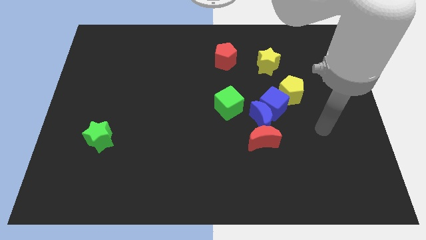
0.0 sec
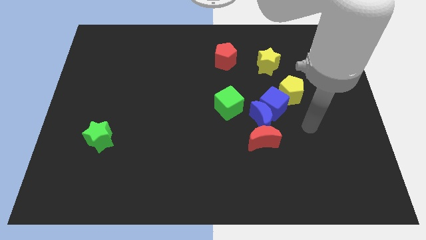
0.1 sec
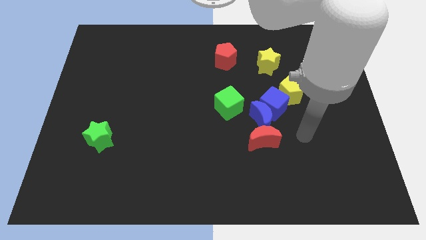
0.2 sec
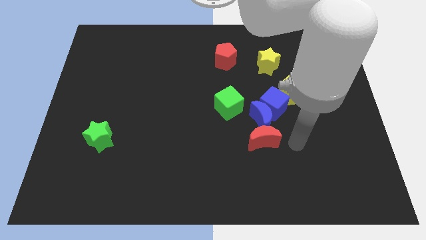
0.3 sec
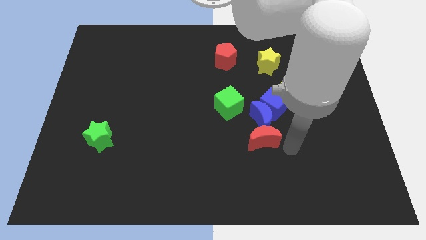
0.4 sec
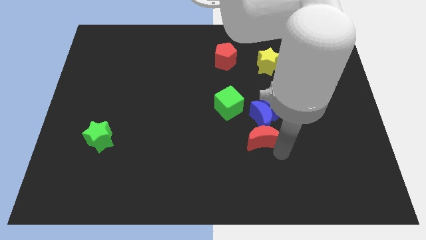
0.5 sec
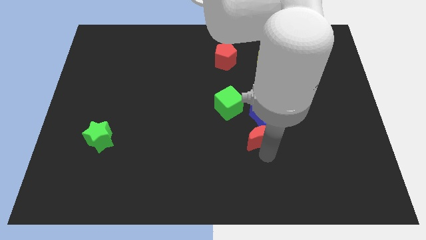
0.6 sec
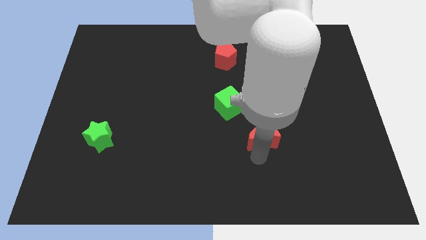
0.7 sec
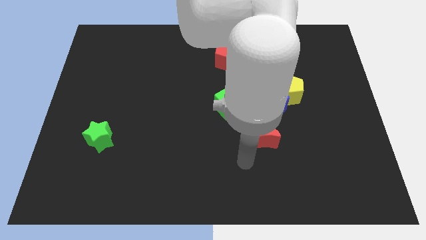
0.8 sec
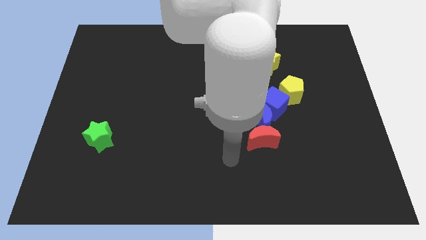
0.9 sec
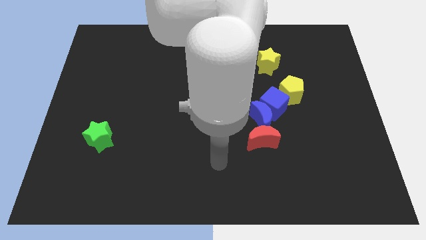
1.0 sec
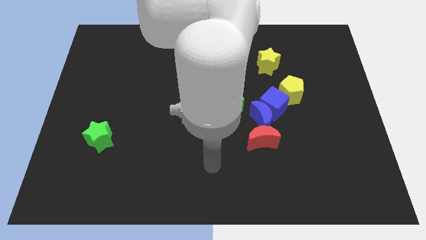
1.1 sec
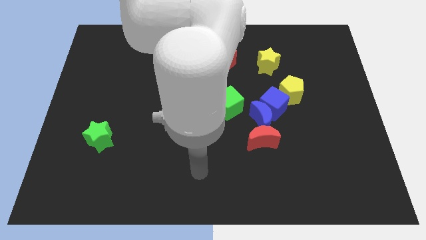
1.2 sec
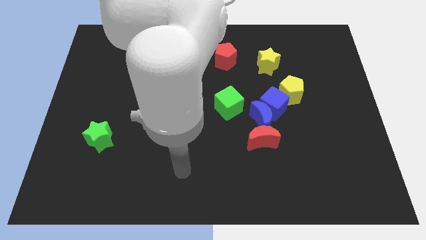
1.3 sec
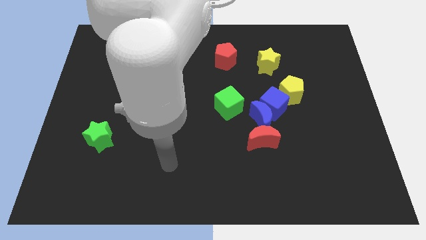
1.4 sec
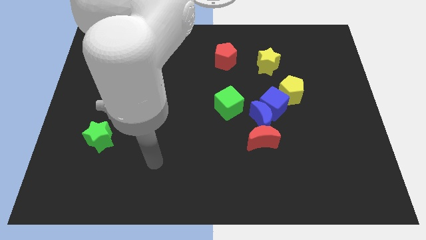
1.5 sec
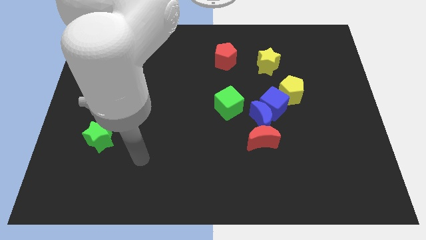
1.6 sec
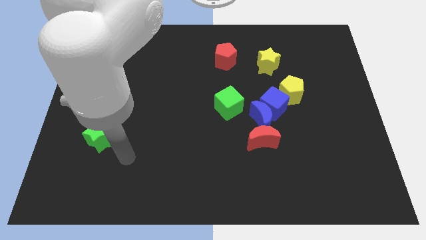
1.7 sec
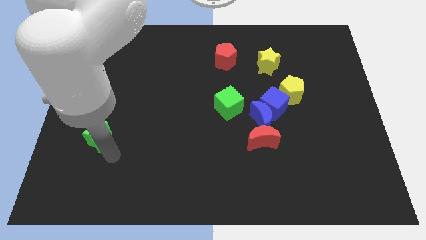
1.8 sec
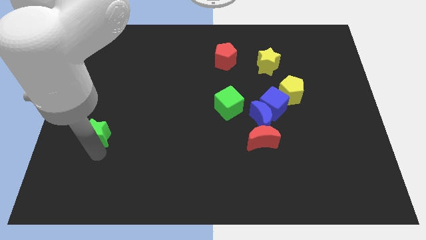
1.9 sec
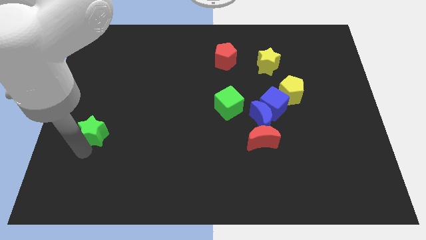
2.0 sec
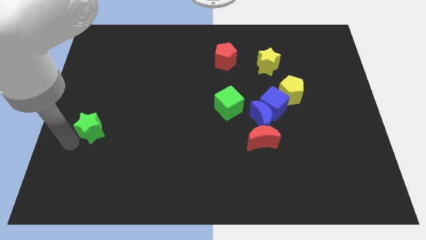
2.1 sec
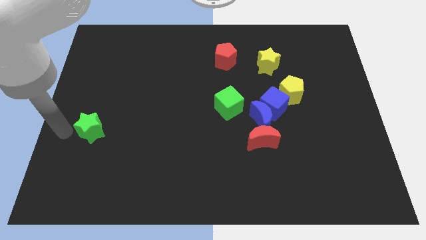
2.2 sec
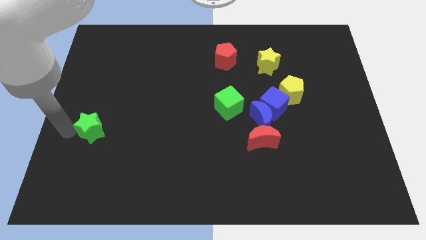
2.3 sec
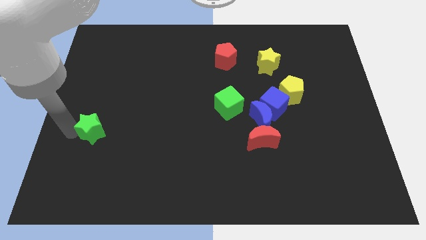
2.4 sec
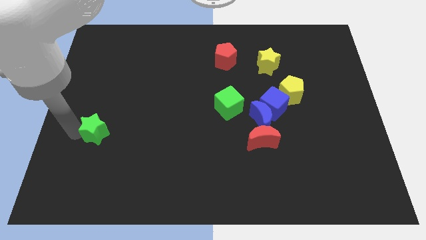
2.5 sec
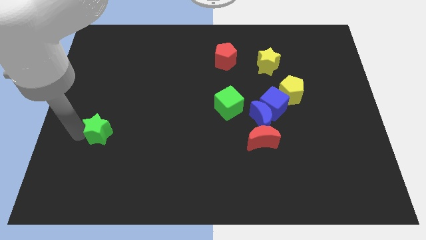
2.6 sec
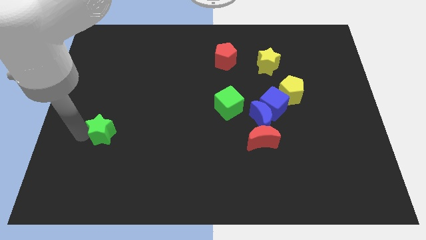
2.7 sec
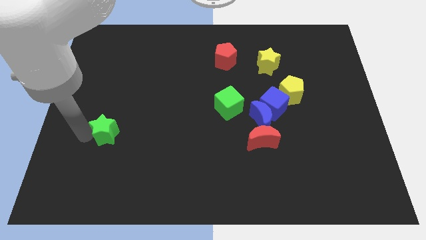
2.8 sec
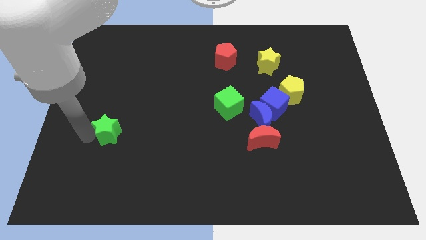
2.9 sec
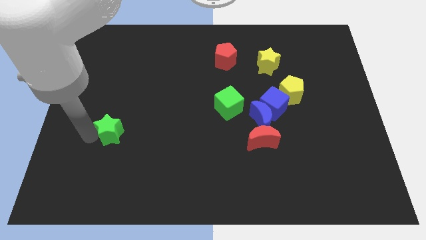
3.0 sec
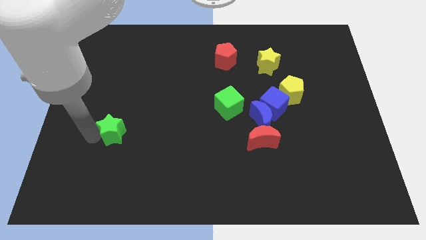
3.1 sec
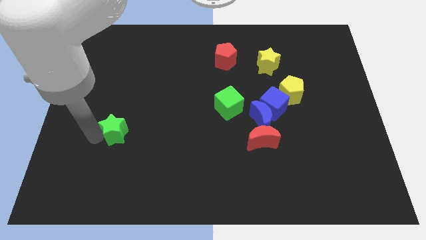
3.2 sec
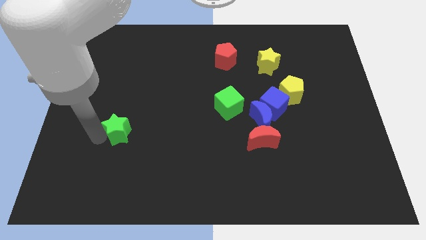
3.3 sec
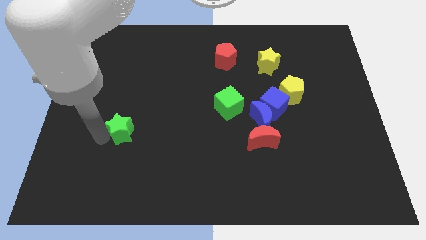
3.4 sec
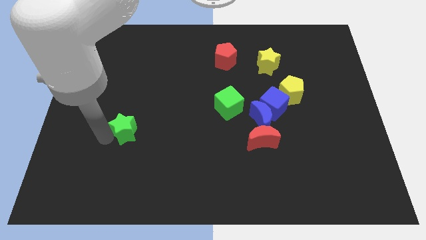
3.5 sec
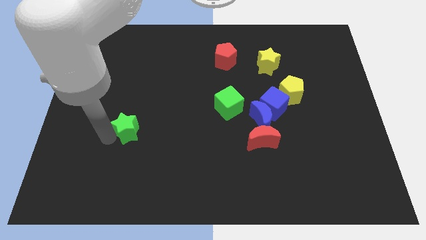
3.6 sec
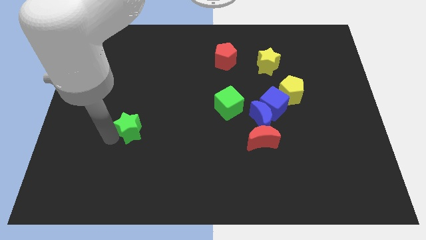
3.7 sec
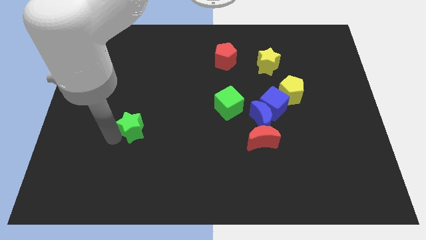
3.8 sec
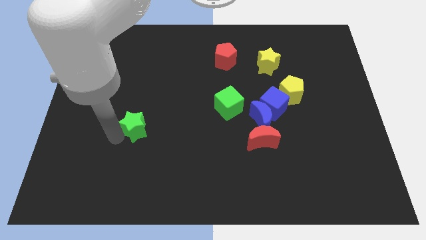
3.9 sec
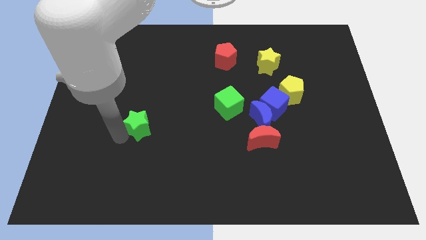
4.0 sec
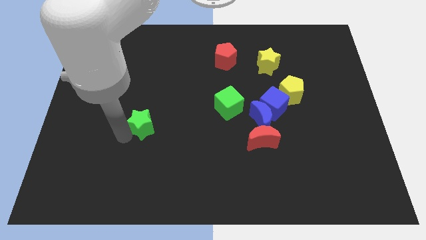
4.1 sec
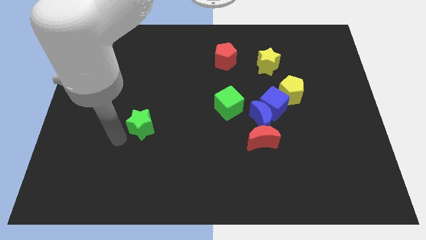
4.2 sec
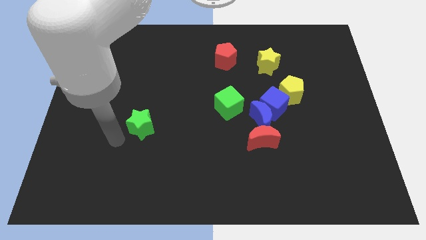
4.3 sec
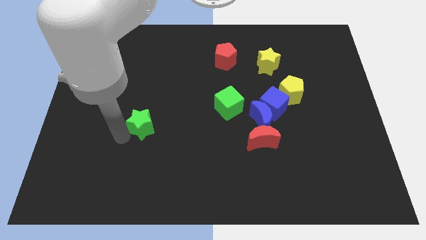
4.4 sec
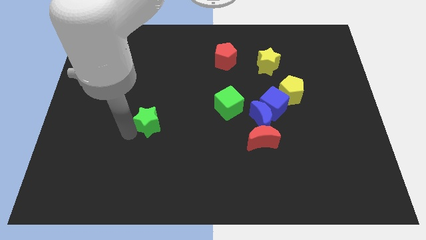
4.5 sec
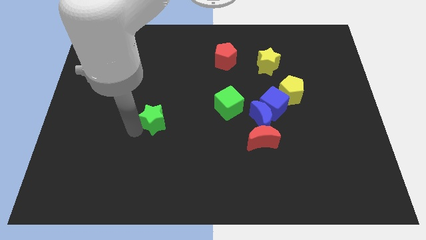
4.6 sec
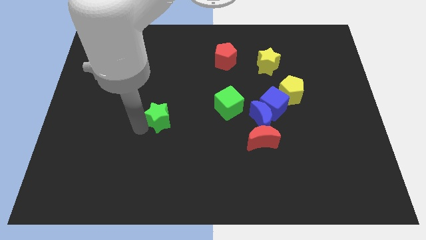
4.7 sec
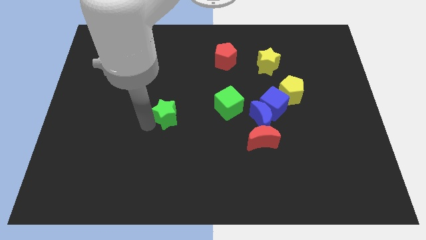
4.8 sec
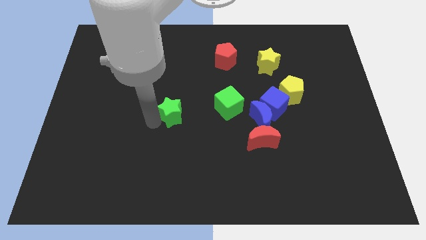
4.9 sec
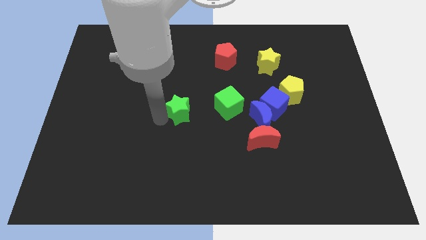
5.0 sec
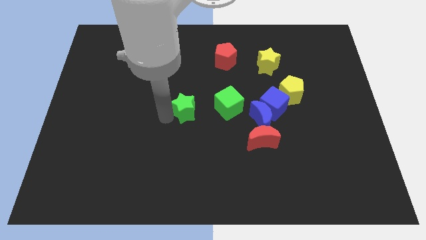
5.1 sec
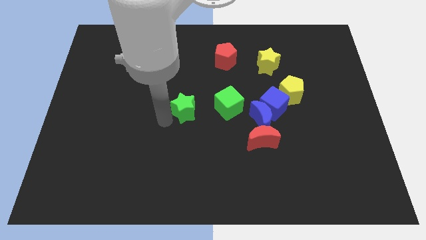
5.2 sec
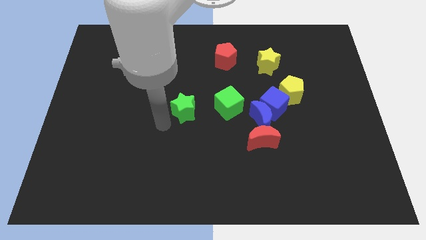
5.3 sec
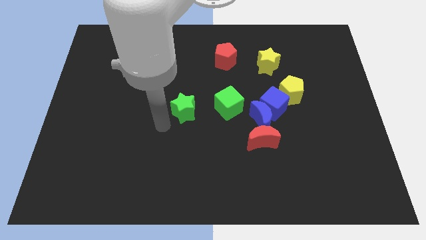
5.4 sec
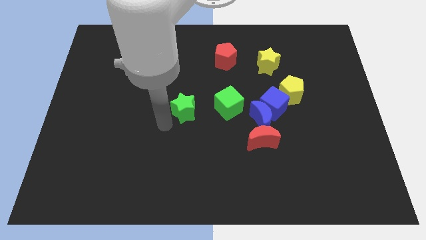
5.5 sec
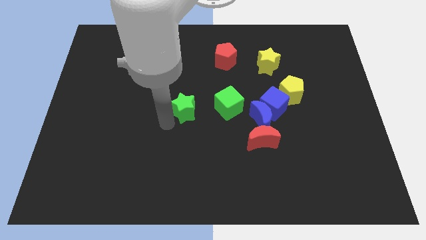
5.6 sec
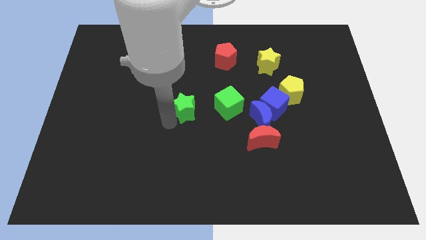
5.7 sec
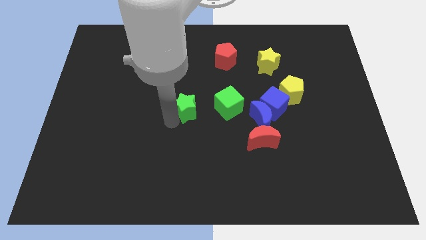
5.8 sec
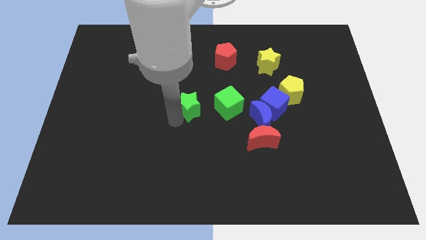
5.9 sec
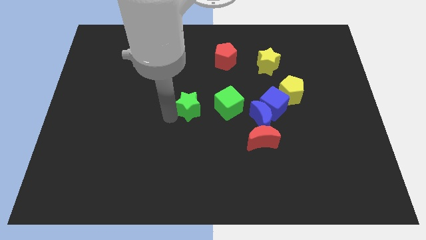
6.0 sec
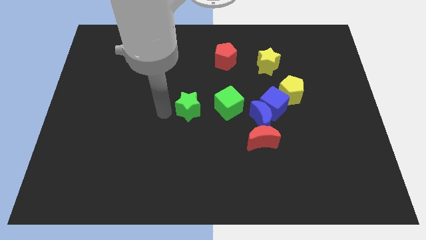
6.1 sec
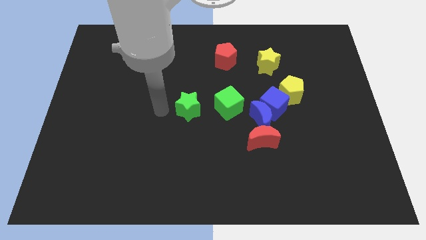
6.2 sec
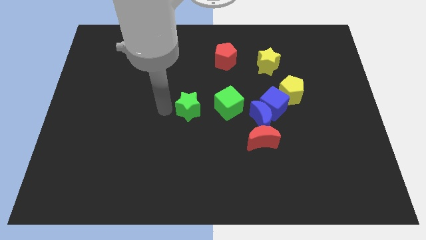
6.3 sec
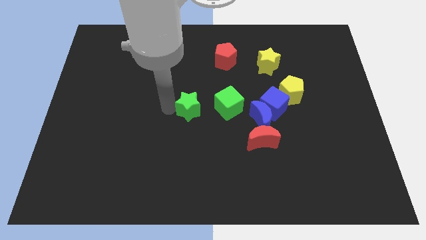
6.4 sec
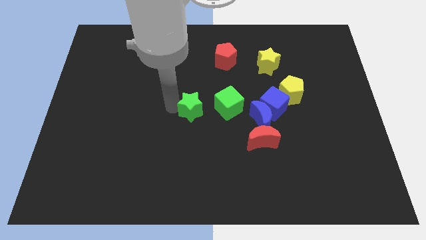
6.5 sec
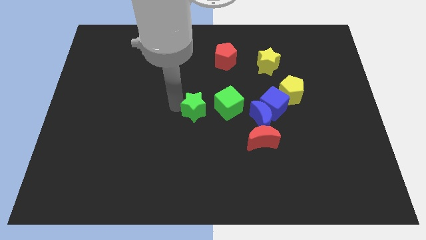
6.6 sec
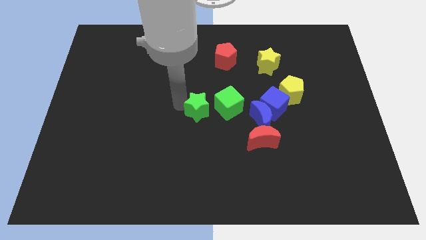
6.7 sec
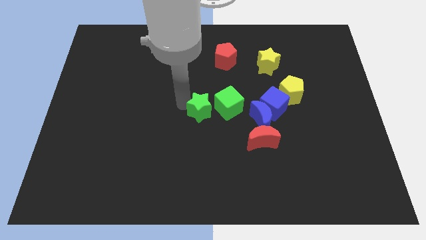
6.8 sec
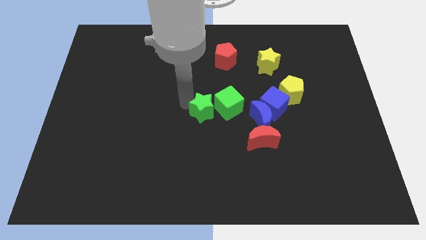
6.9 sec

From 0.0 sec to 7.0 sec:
slide the green star next to the green cube

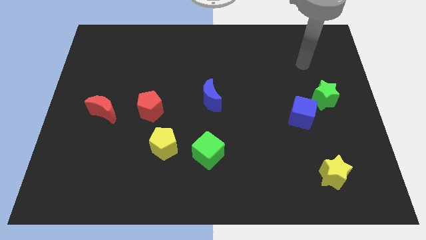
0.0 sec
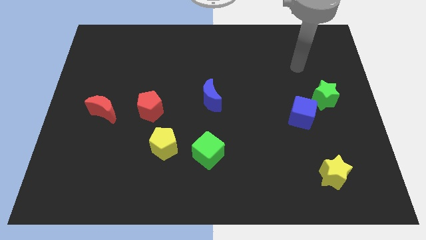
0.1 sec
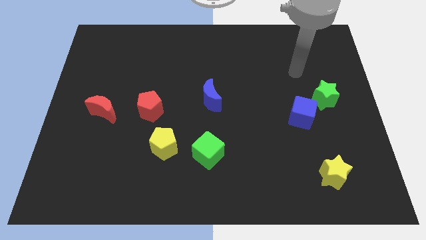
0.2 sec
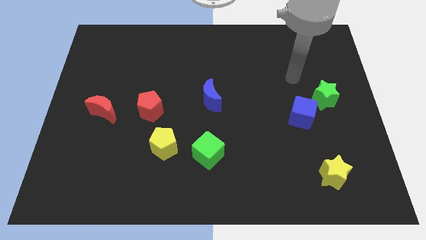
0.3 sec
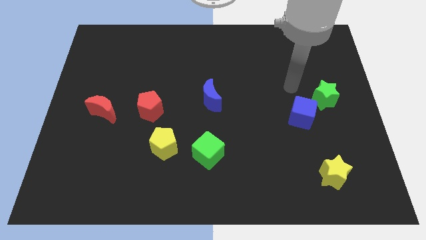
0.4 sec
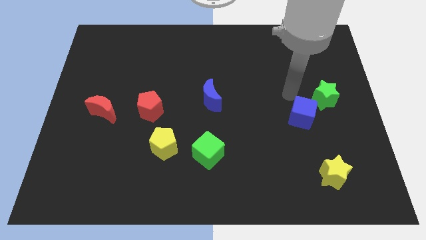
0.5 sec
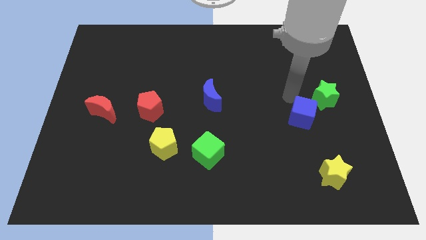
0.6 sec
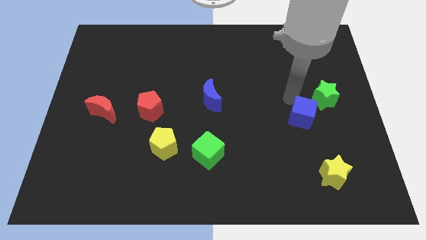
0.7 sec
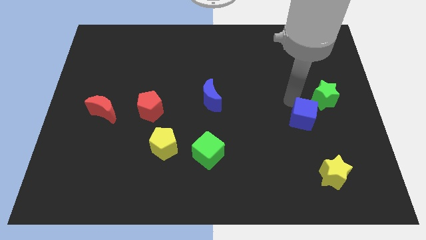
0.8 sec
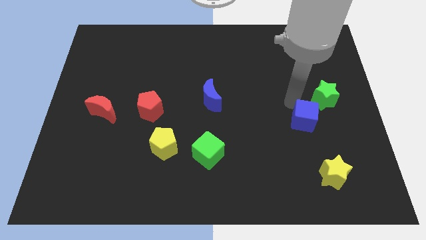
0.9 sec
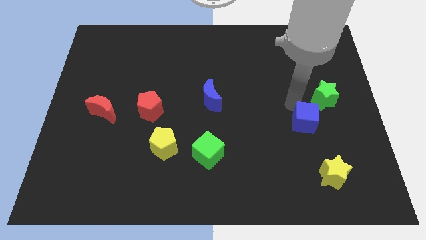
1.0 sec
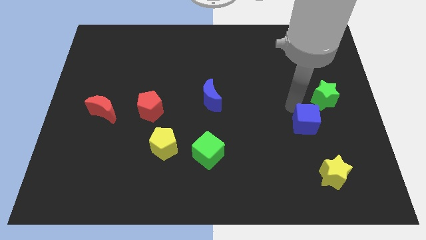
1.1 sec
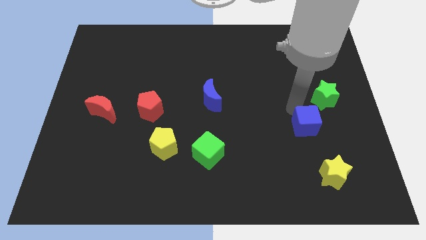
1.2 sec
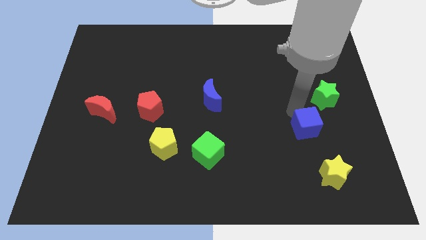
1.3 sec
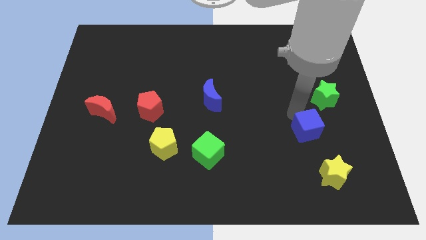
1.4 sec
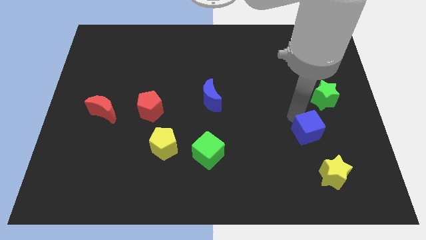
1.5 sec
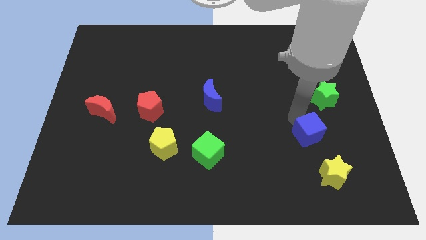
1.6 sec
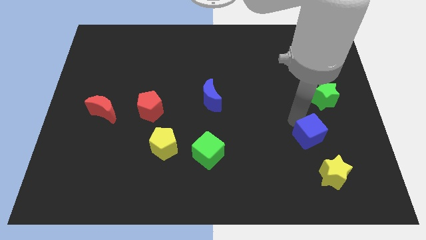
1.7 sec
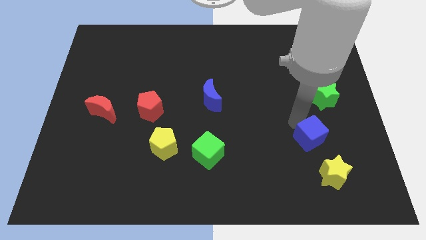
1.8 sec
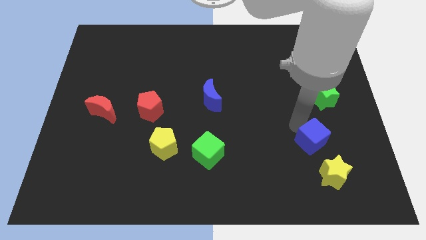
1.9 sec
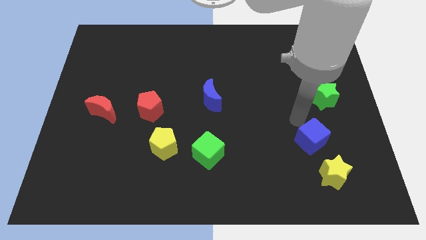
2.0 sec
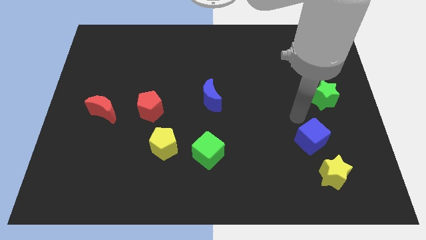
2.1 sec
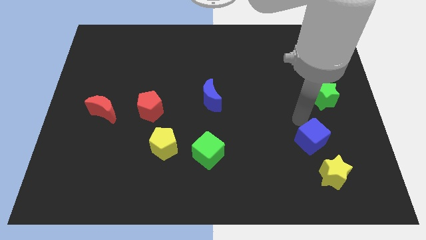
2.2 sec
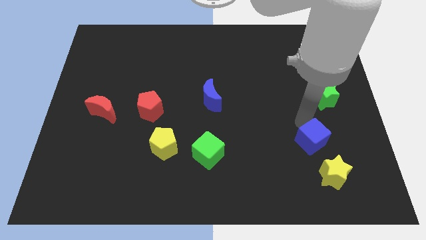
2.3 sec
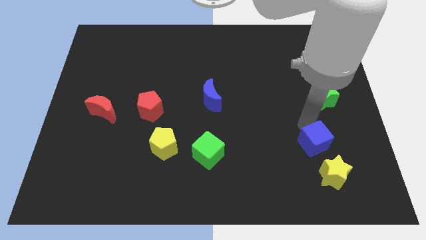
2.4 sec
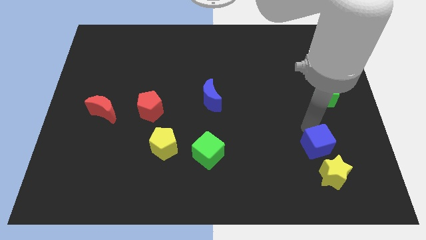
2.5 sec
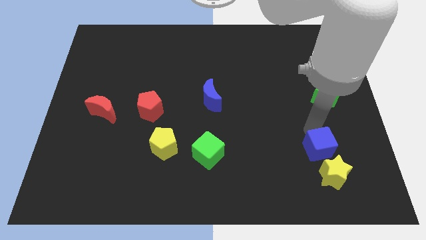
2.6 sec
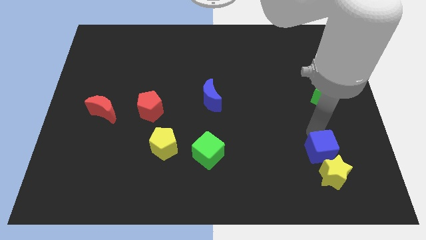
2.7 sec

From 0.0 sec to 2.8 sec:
move the blue cube close to the yellow star
